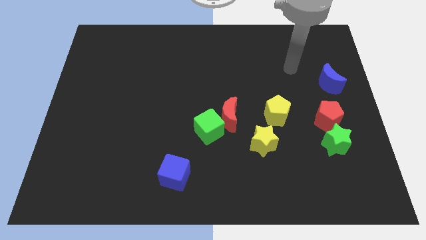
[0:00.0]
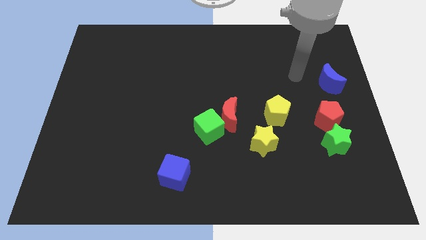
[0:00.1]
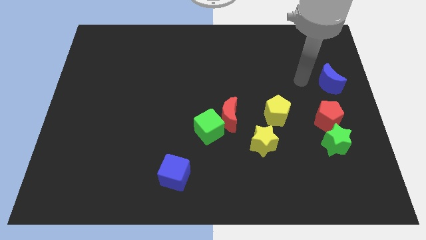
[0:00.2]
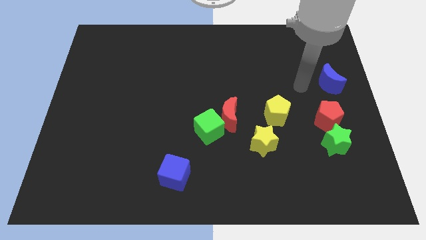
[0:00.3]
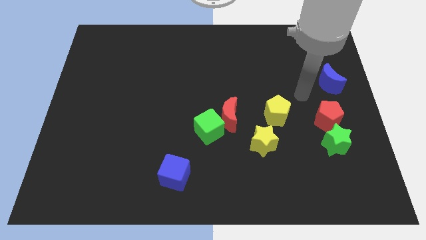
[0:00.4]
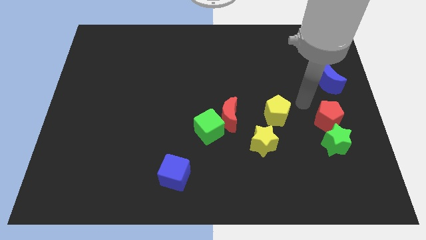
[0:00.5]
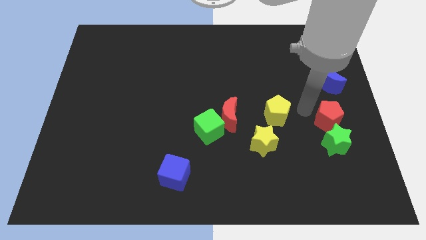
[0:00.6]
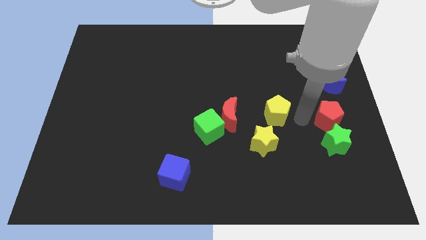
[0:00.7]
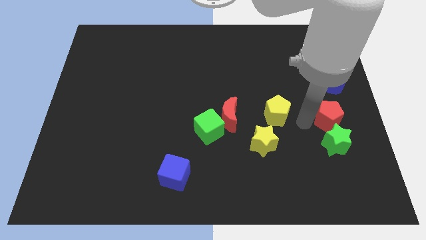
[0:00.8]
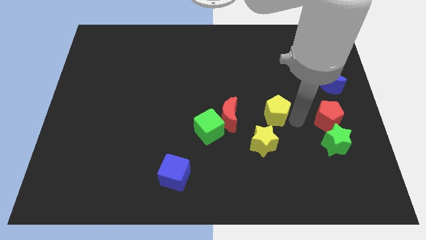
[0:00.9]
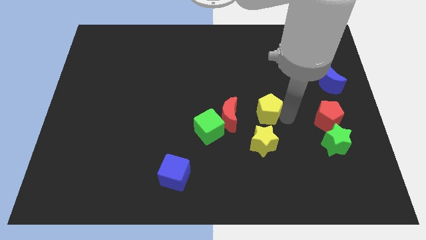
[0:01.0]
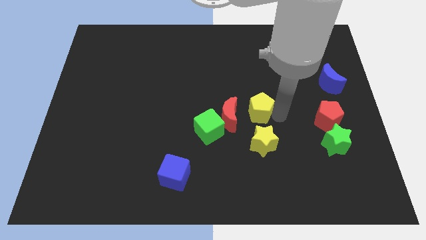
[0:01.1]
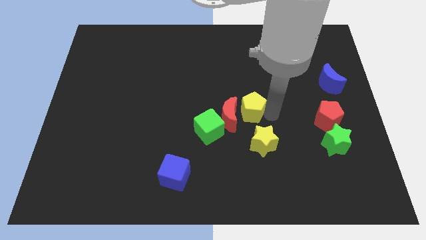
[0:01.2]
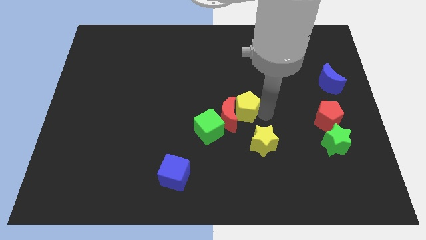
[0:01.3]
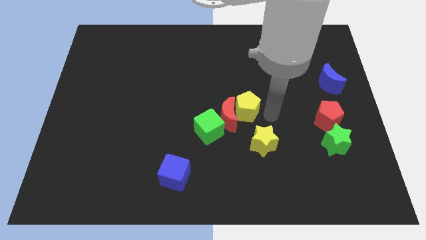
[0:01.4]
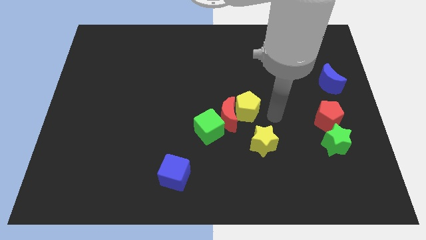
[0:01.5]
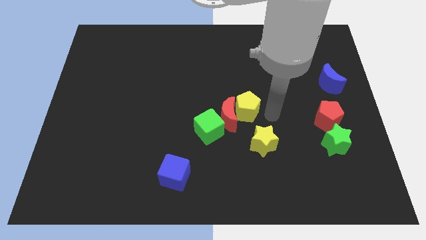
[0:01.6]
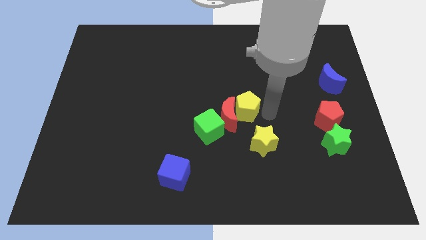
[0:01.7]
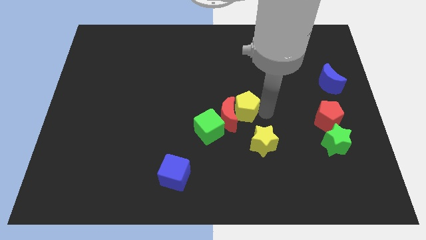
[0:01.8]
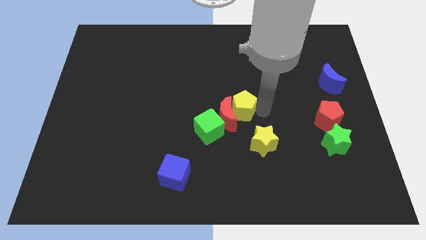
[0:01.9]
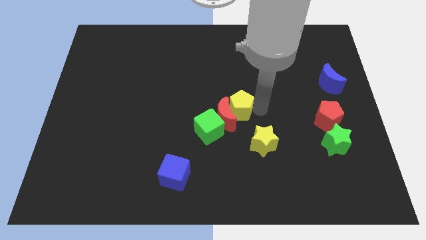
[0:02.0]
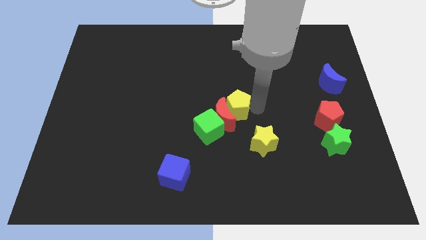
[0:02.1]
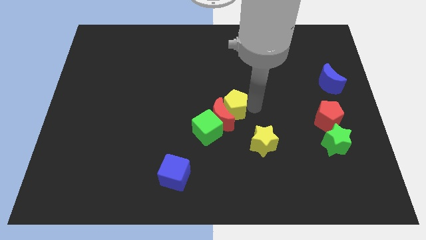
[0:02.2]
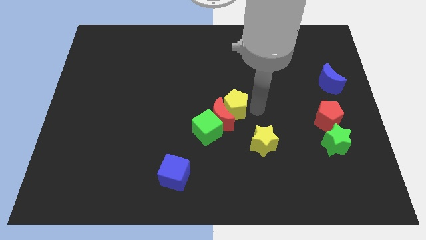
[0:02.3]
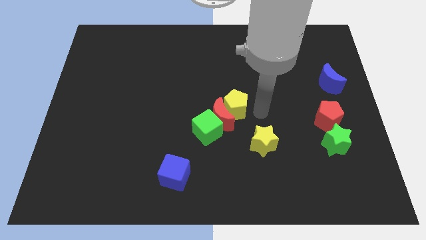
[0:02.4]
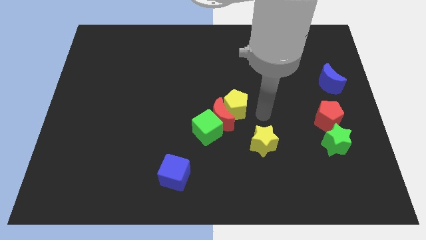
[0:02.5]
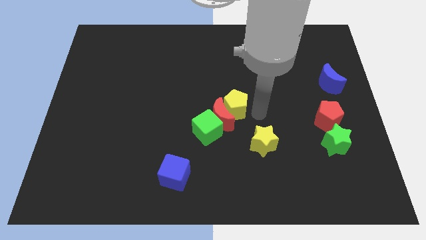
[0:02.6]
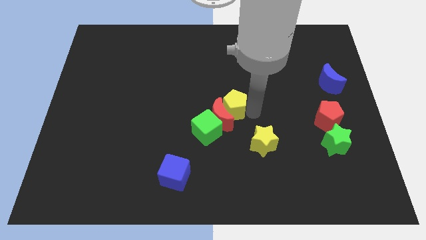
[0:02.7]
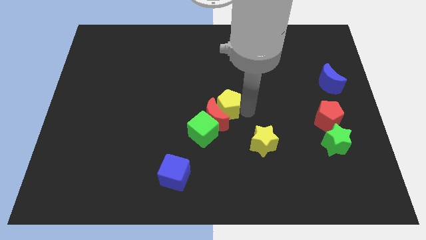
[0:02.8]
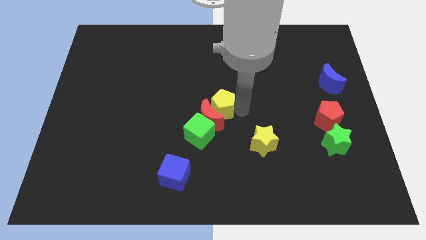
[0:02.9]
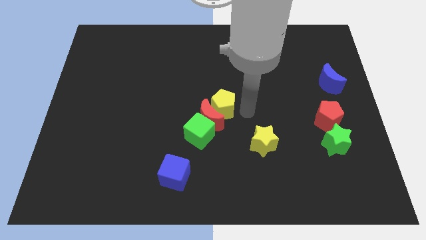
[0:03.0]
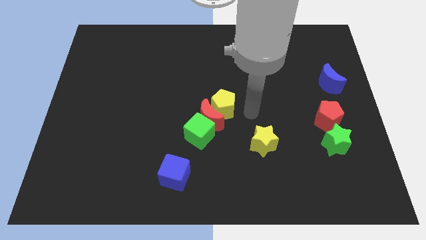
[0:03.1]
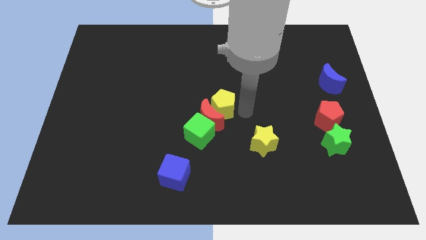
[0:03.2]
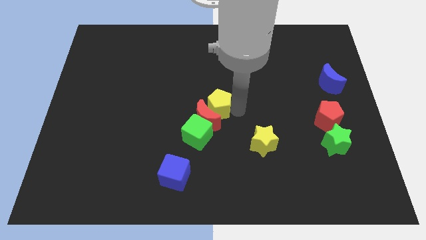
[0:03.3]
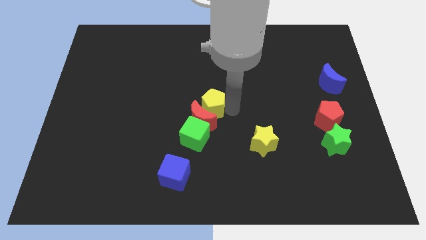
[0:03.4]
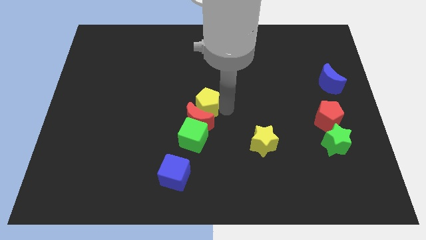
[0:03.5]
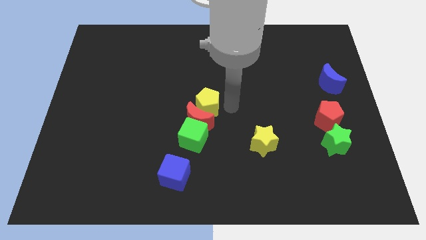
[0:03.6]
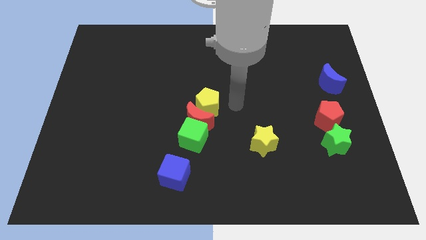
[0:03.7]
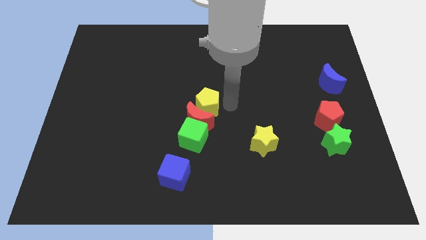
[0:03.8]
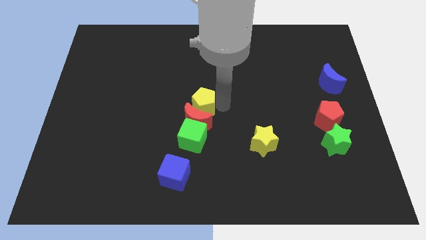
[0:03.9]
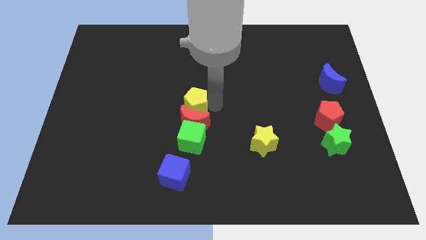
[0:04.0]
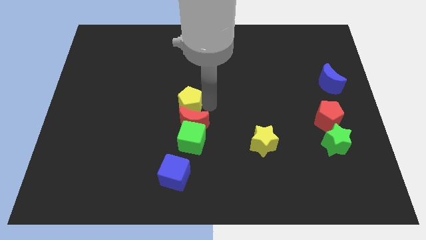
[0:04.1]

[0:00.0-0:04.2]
push the yellow pentagon to the left

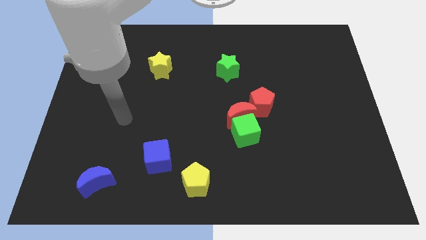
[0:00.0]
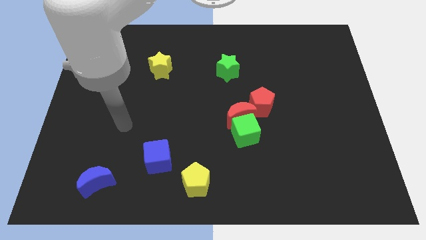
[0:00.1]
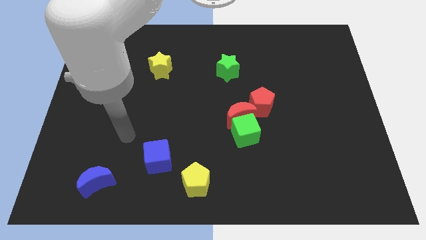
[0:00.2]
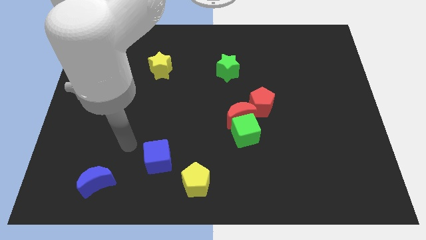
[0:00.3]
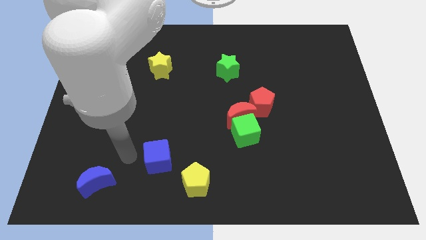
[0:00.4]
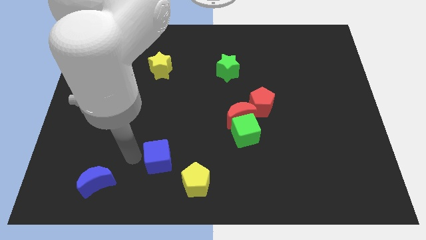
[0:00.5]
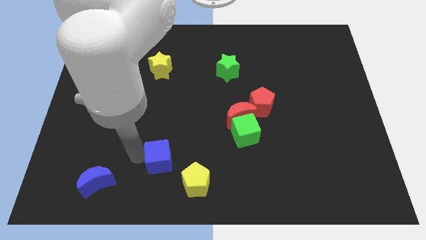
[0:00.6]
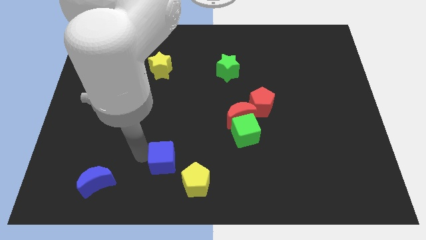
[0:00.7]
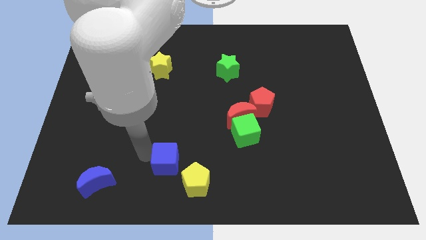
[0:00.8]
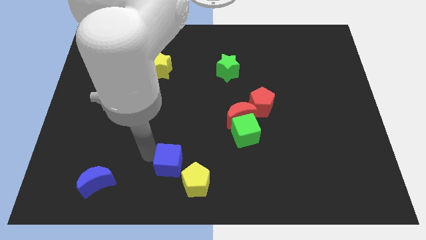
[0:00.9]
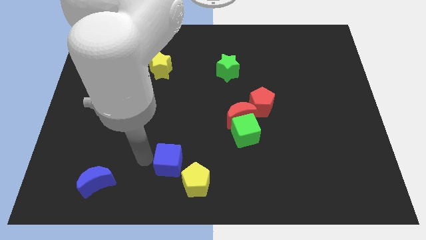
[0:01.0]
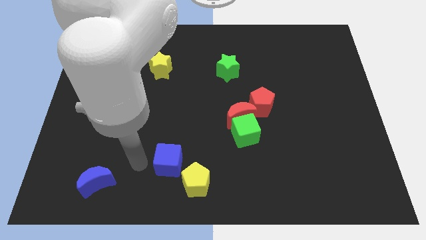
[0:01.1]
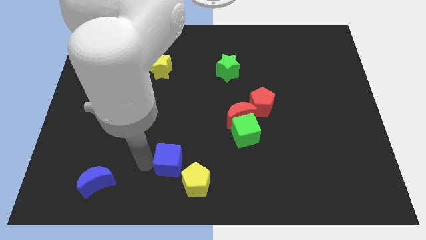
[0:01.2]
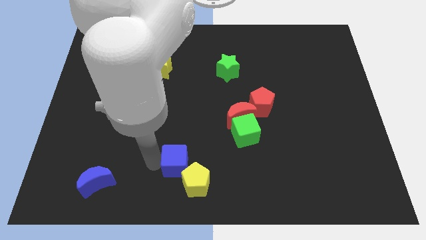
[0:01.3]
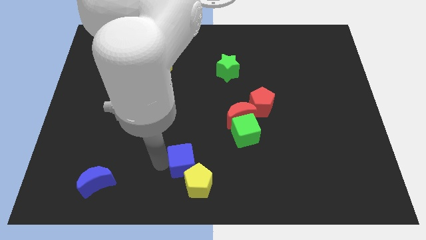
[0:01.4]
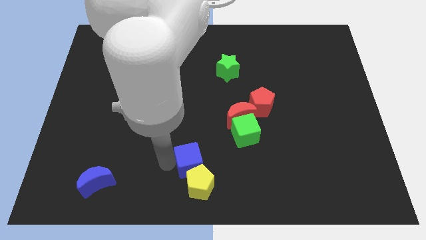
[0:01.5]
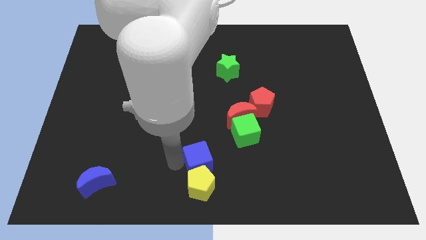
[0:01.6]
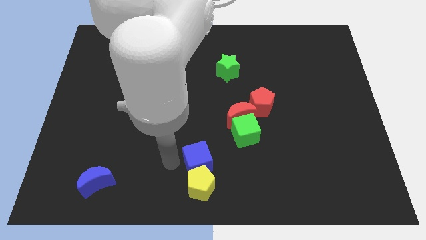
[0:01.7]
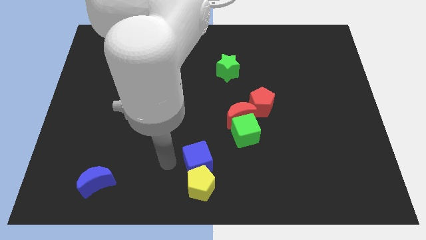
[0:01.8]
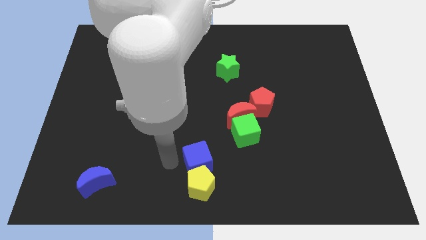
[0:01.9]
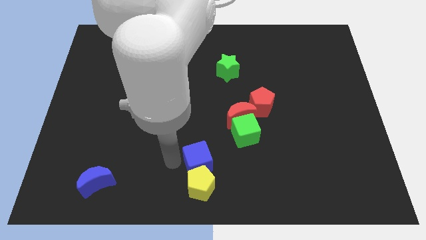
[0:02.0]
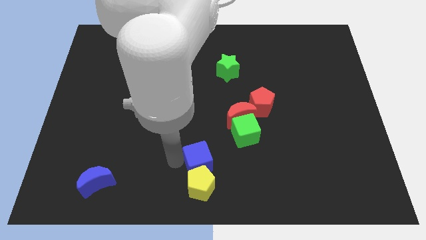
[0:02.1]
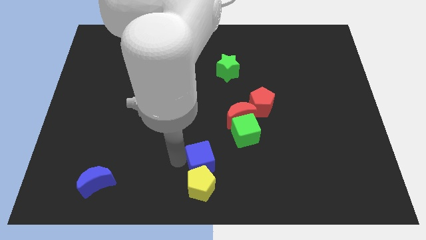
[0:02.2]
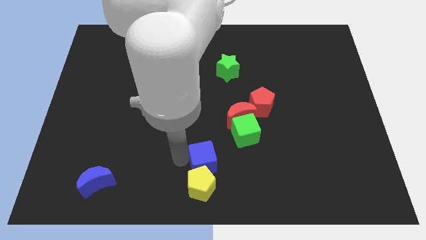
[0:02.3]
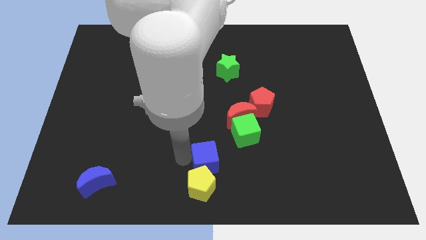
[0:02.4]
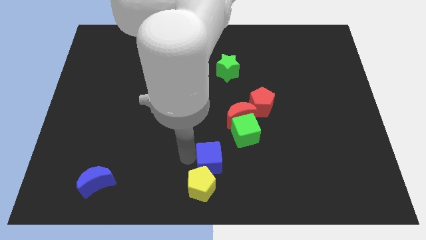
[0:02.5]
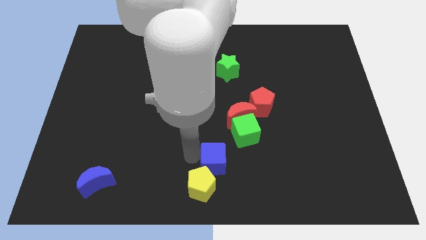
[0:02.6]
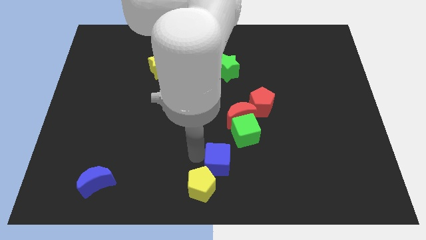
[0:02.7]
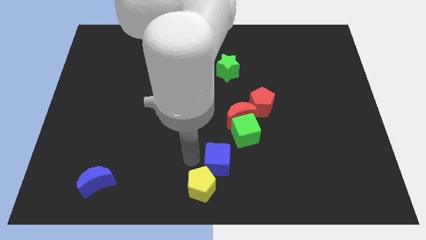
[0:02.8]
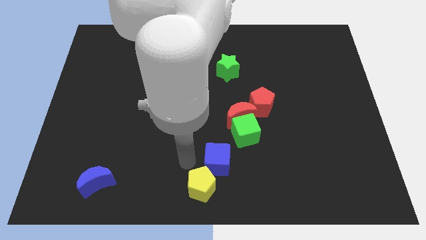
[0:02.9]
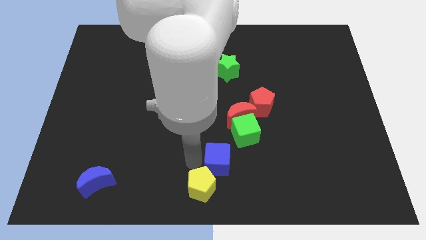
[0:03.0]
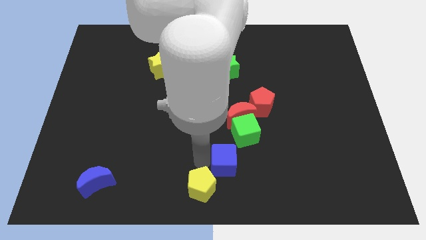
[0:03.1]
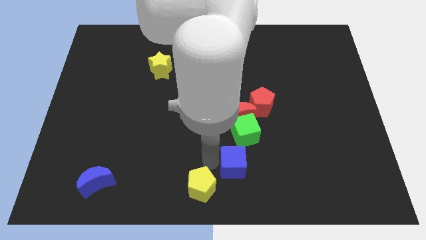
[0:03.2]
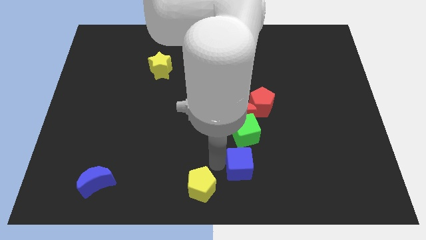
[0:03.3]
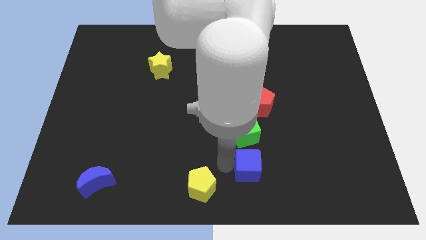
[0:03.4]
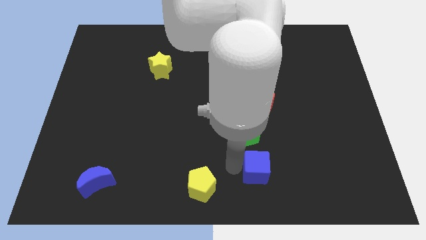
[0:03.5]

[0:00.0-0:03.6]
push the blue cube right

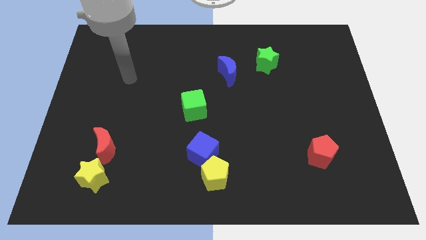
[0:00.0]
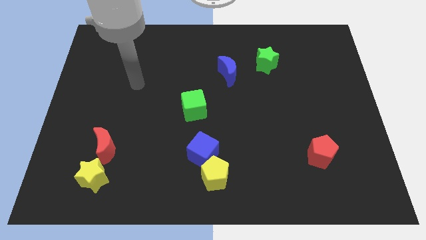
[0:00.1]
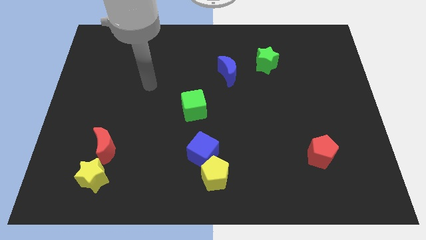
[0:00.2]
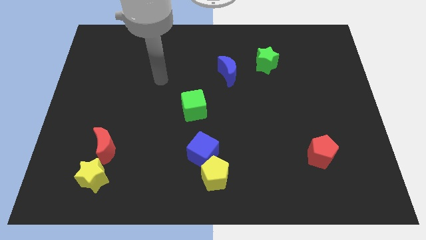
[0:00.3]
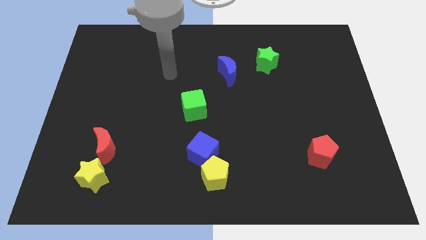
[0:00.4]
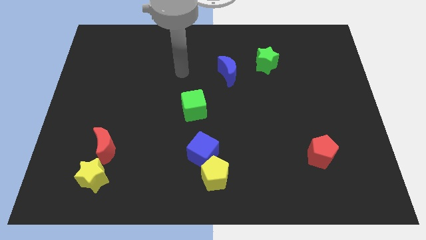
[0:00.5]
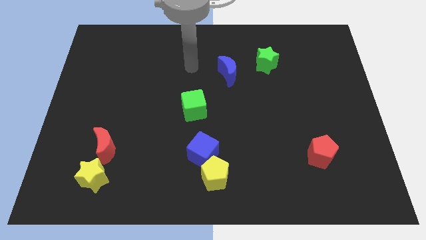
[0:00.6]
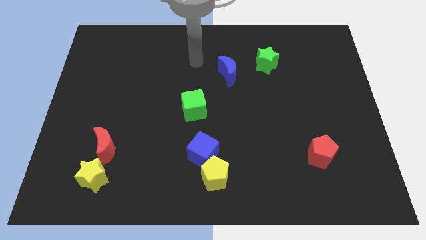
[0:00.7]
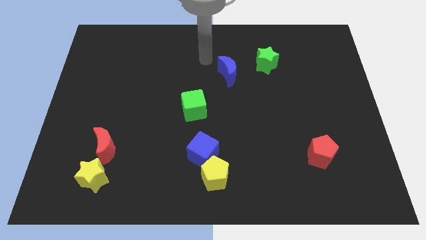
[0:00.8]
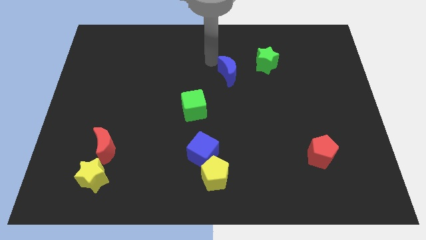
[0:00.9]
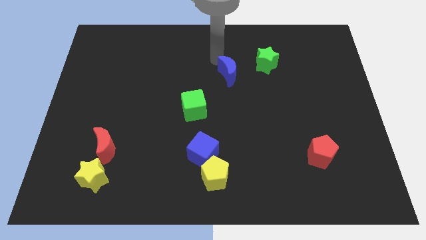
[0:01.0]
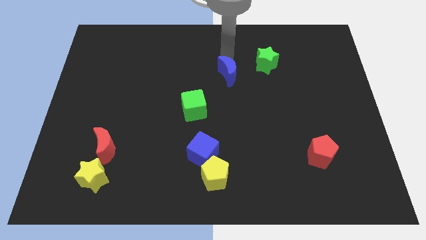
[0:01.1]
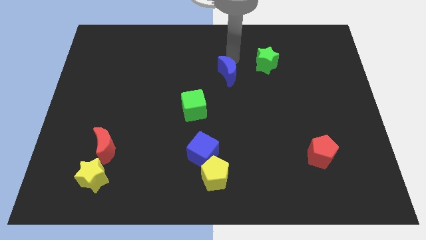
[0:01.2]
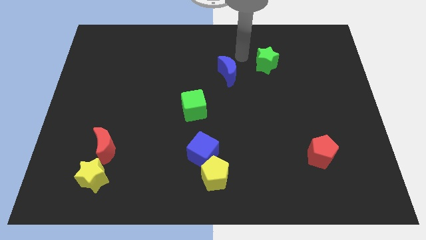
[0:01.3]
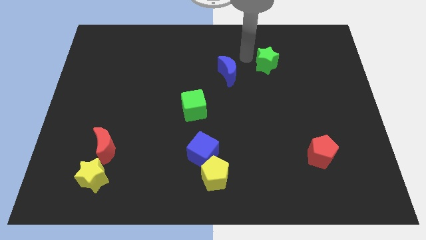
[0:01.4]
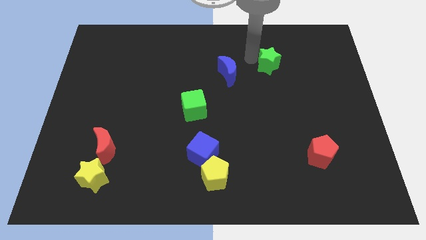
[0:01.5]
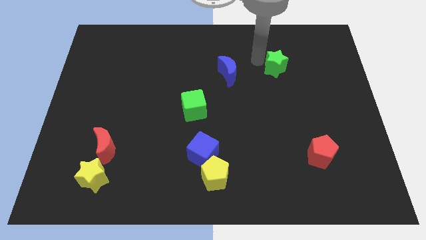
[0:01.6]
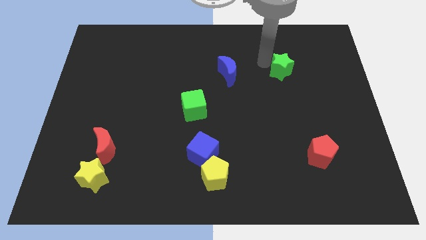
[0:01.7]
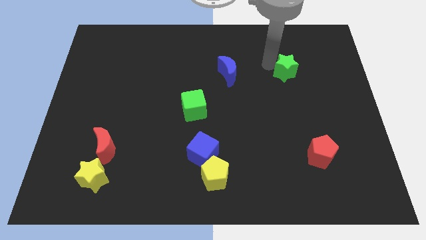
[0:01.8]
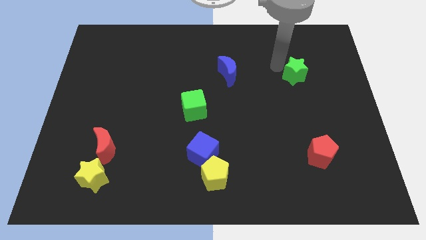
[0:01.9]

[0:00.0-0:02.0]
slightly move the green star downwards and to the right
